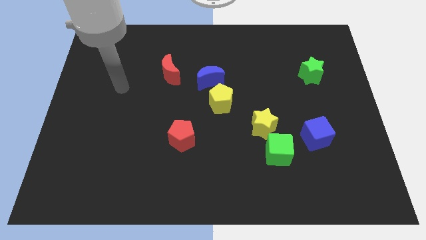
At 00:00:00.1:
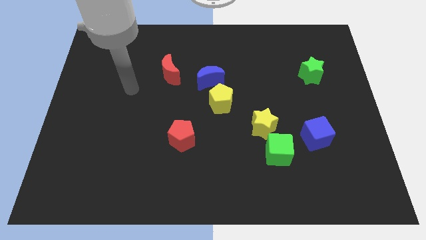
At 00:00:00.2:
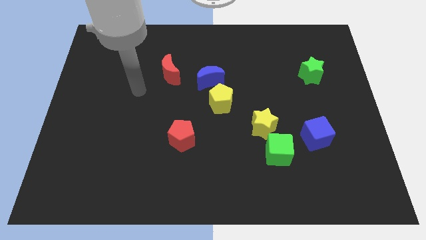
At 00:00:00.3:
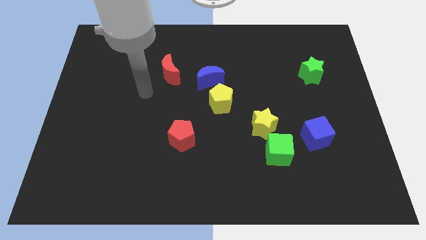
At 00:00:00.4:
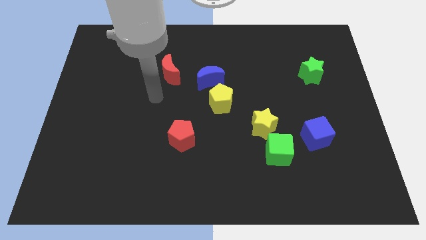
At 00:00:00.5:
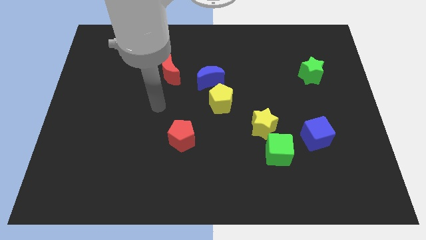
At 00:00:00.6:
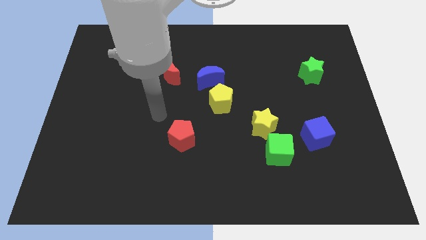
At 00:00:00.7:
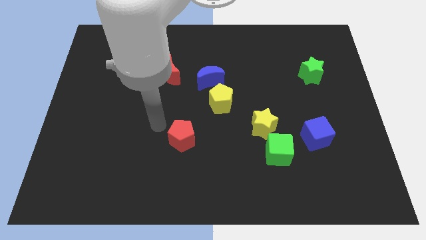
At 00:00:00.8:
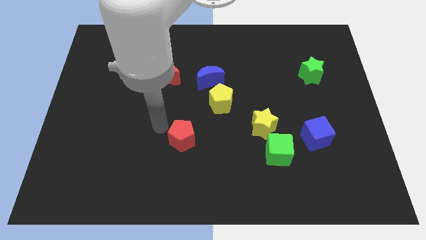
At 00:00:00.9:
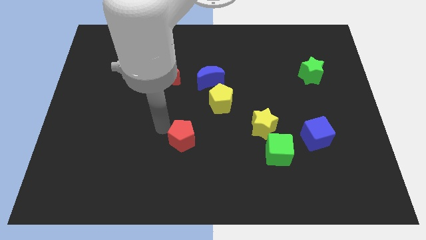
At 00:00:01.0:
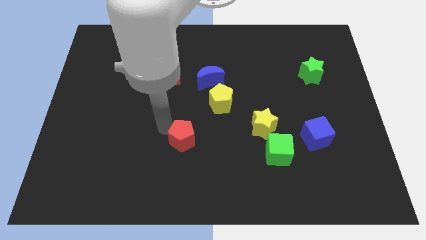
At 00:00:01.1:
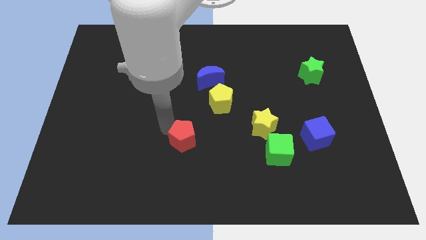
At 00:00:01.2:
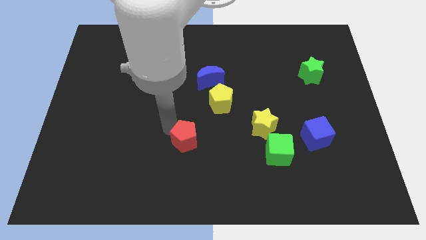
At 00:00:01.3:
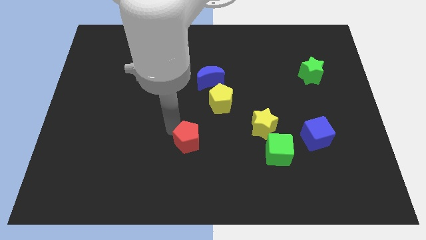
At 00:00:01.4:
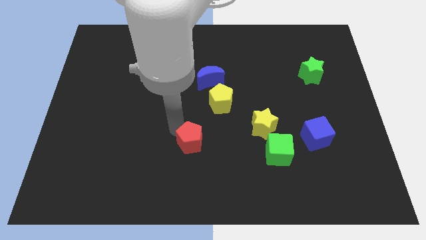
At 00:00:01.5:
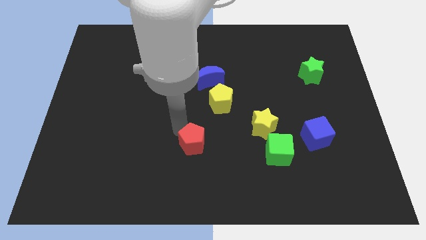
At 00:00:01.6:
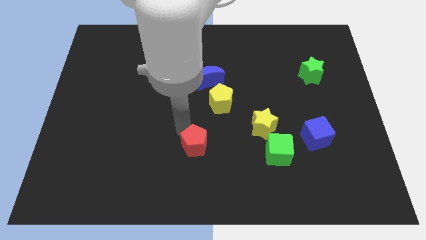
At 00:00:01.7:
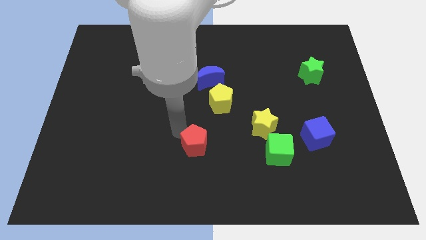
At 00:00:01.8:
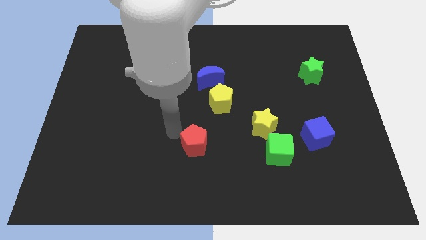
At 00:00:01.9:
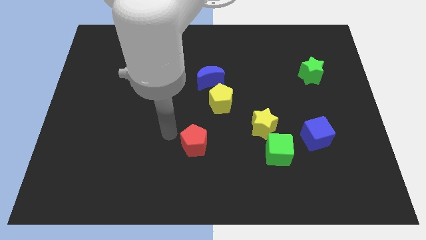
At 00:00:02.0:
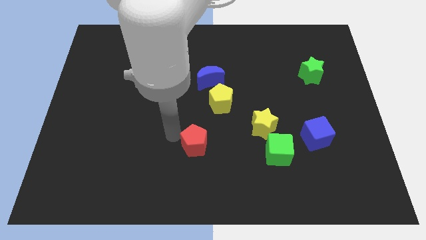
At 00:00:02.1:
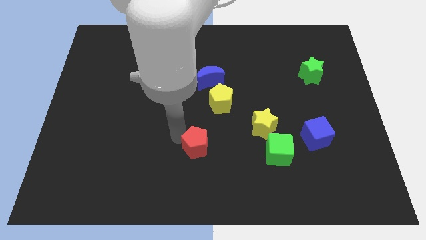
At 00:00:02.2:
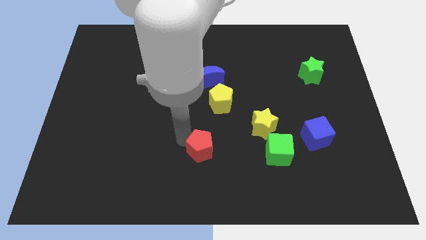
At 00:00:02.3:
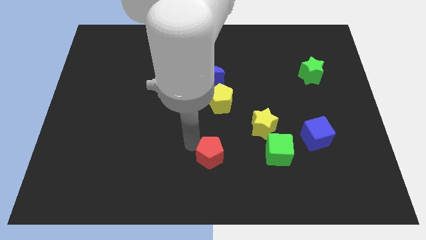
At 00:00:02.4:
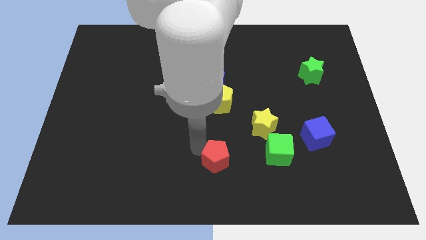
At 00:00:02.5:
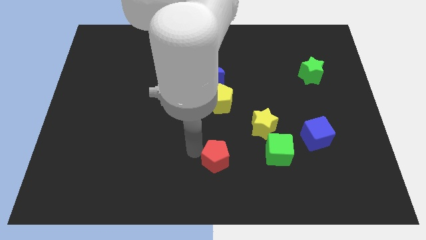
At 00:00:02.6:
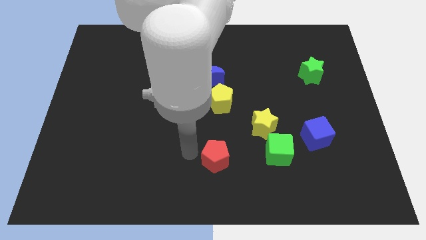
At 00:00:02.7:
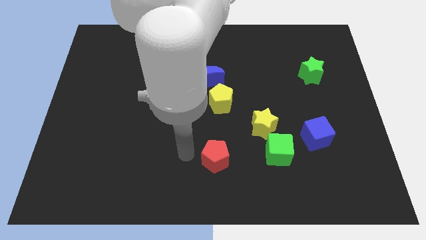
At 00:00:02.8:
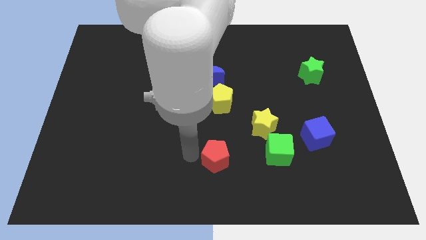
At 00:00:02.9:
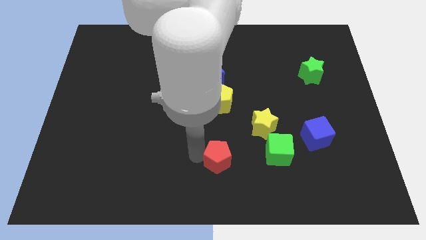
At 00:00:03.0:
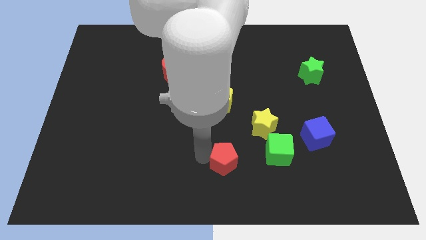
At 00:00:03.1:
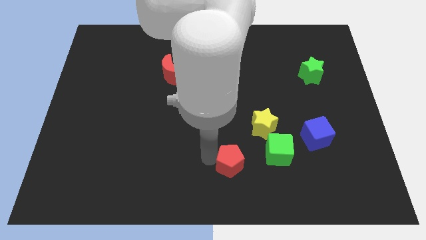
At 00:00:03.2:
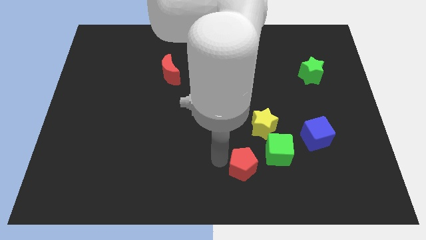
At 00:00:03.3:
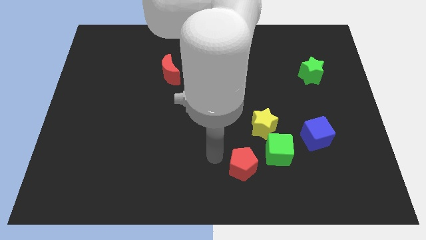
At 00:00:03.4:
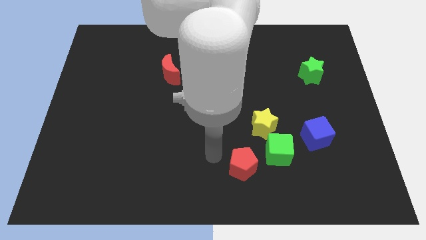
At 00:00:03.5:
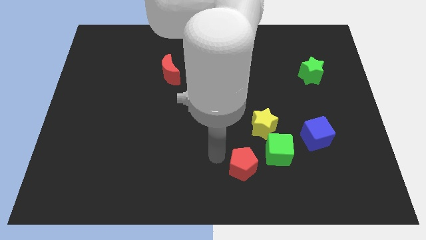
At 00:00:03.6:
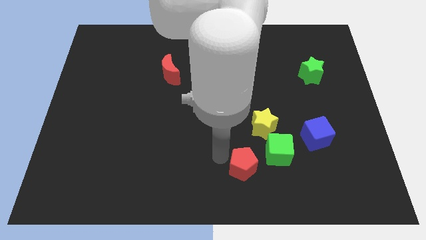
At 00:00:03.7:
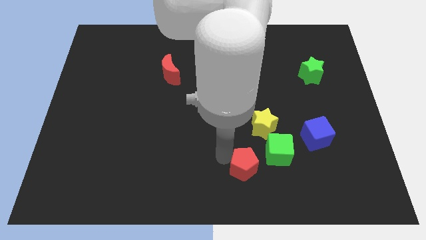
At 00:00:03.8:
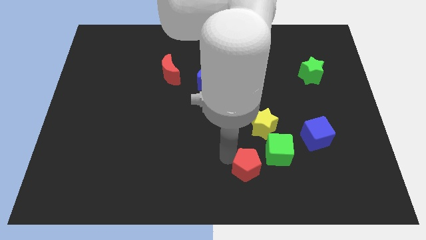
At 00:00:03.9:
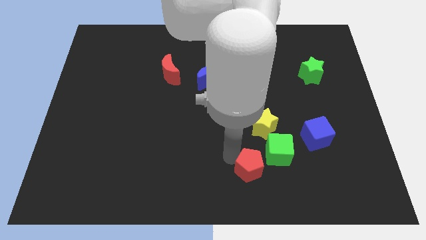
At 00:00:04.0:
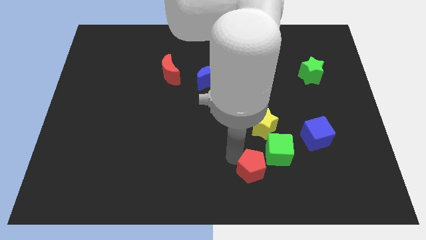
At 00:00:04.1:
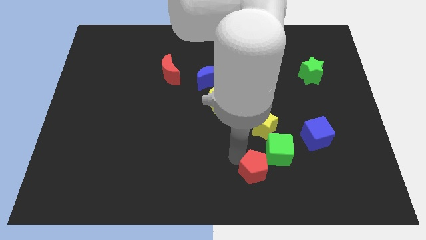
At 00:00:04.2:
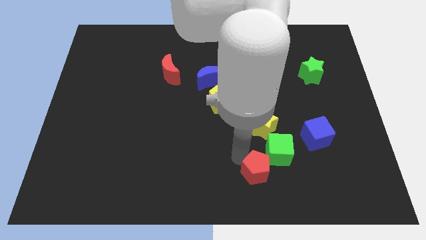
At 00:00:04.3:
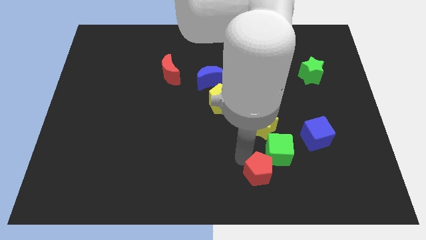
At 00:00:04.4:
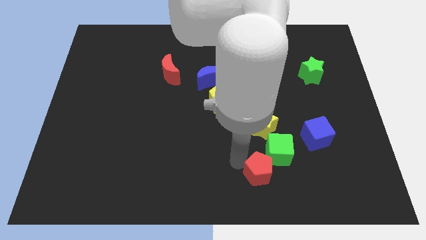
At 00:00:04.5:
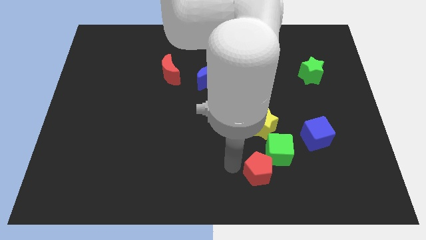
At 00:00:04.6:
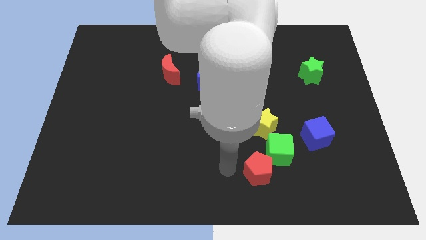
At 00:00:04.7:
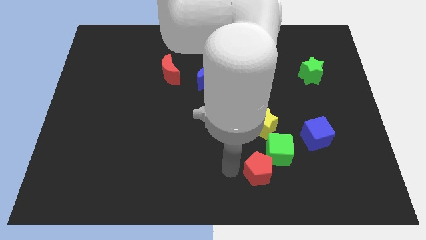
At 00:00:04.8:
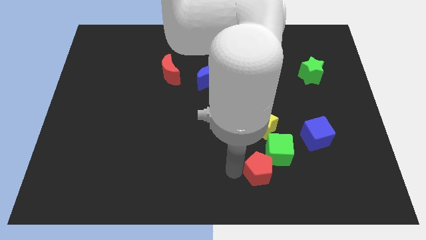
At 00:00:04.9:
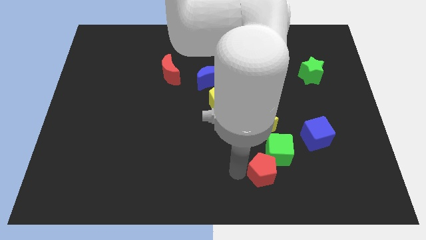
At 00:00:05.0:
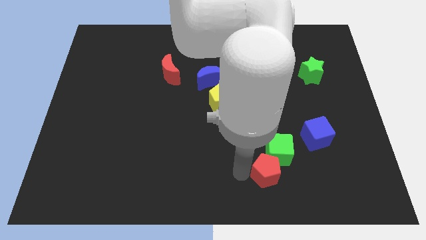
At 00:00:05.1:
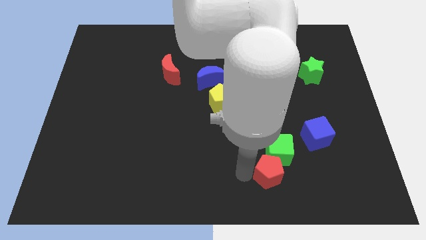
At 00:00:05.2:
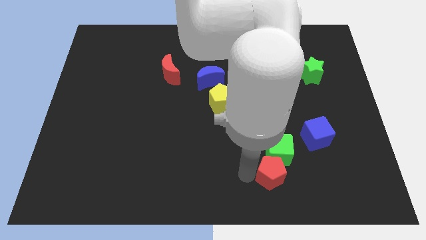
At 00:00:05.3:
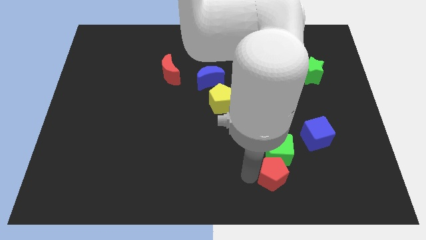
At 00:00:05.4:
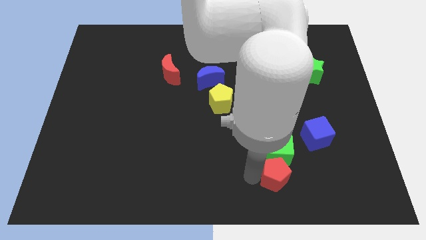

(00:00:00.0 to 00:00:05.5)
move the red pentagon to the bottom right of the green cube

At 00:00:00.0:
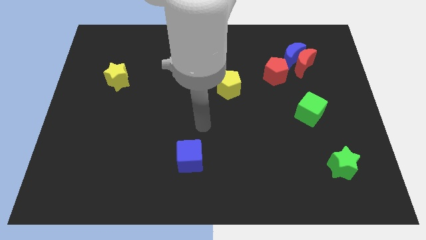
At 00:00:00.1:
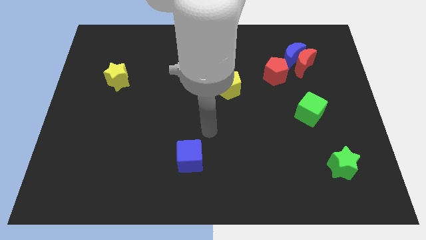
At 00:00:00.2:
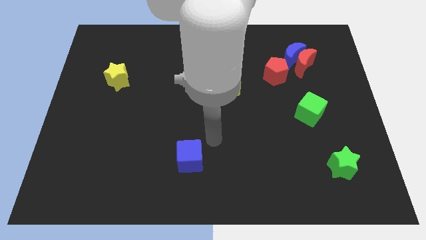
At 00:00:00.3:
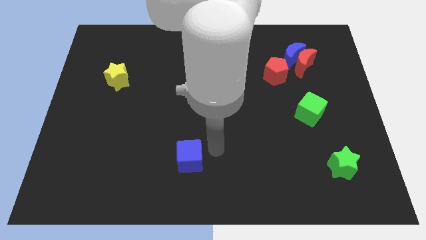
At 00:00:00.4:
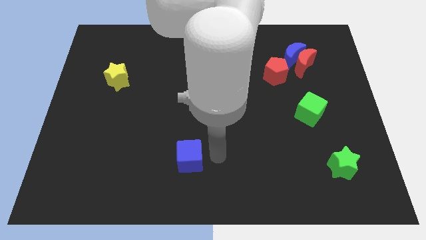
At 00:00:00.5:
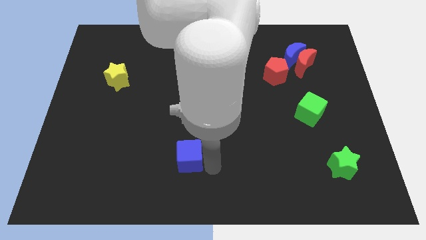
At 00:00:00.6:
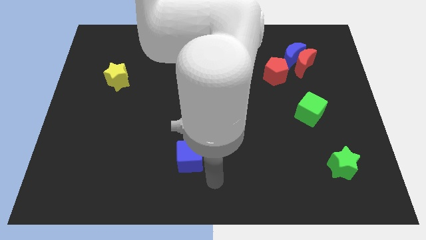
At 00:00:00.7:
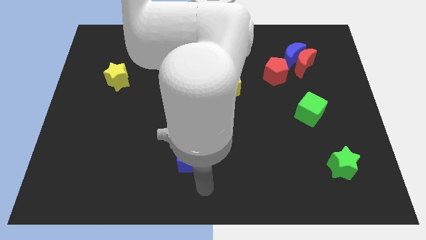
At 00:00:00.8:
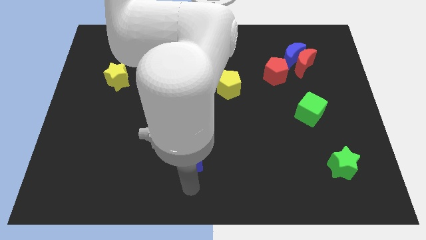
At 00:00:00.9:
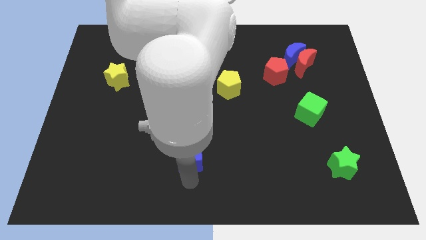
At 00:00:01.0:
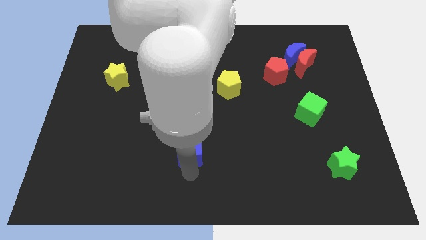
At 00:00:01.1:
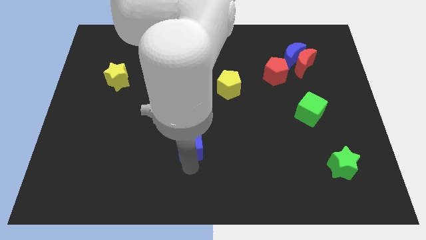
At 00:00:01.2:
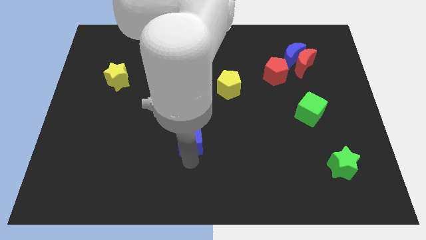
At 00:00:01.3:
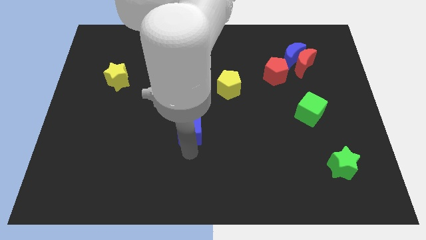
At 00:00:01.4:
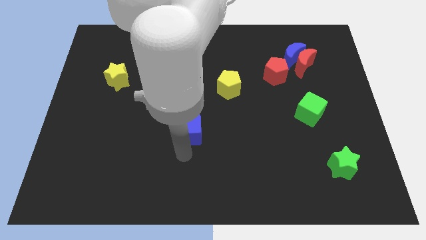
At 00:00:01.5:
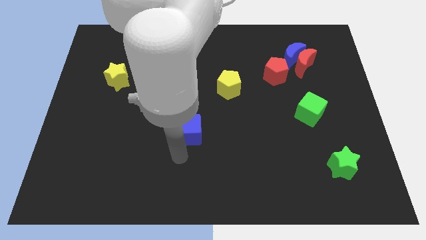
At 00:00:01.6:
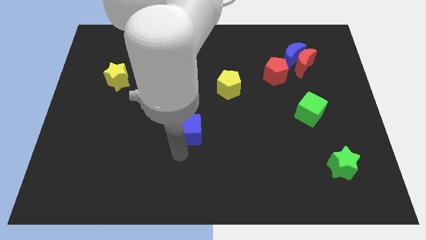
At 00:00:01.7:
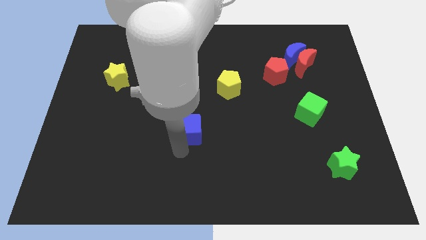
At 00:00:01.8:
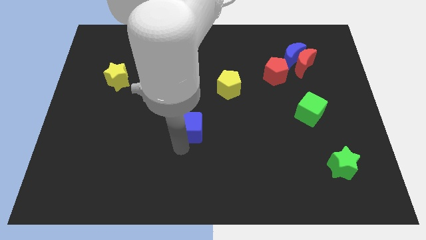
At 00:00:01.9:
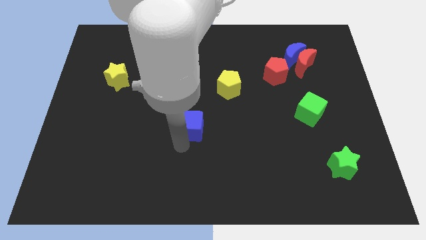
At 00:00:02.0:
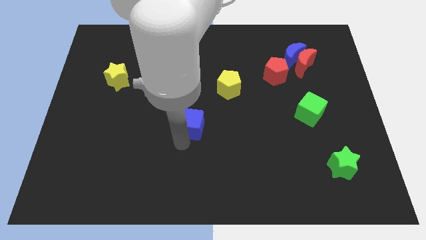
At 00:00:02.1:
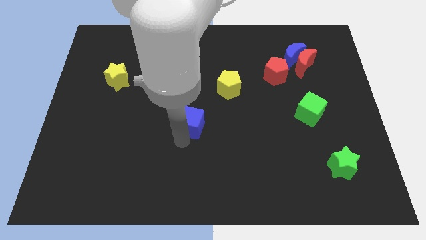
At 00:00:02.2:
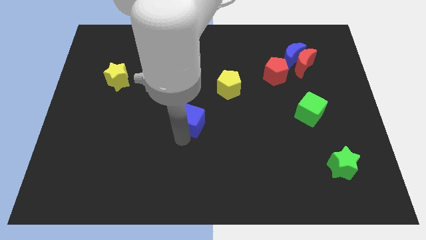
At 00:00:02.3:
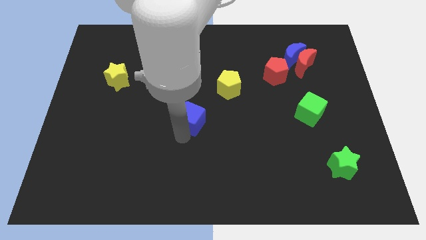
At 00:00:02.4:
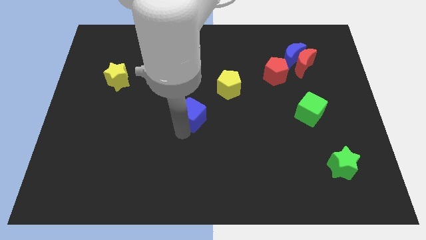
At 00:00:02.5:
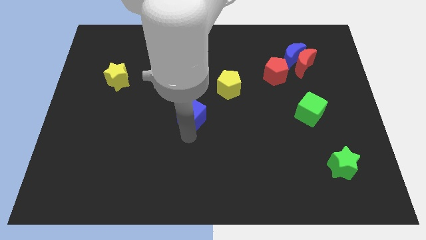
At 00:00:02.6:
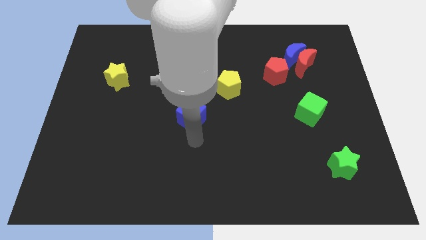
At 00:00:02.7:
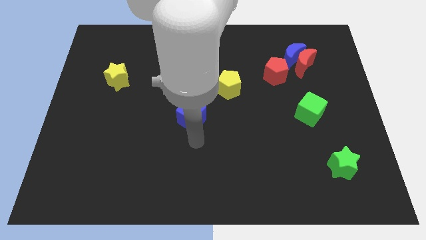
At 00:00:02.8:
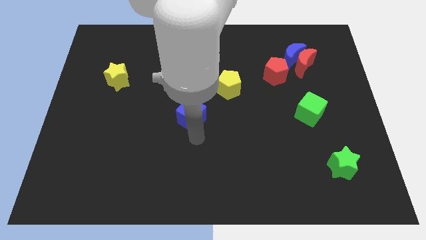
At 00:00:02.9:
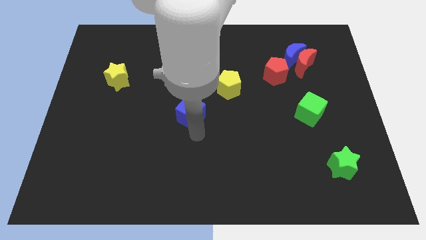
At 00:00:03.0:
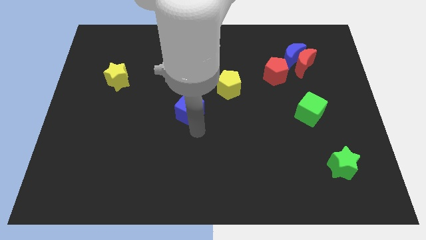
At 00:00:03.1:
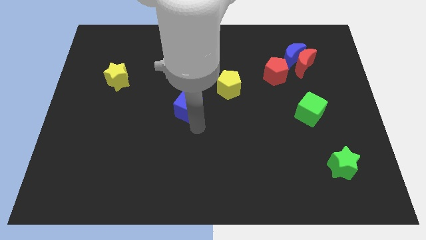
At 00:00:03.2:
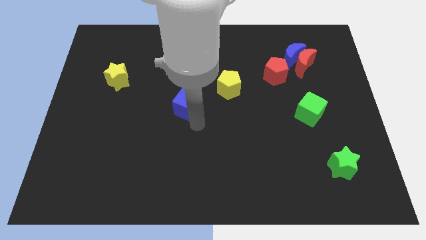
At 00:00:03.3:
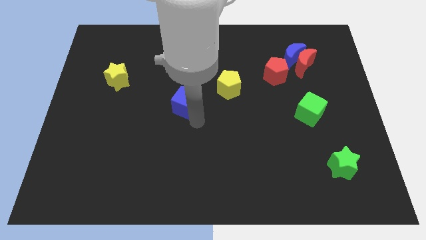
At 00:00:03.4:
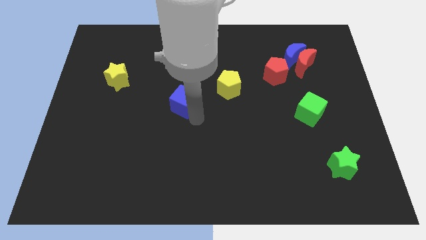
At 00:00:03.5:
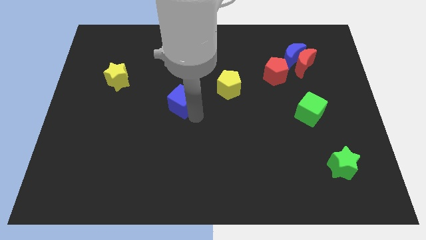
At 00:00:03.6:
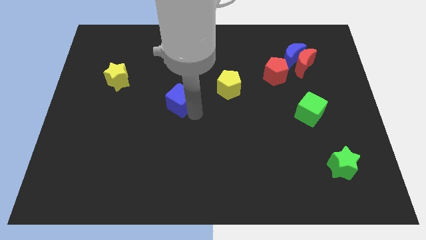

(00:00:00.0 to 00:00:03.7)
move the blue cube left of the yellow pentagon
